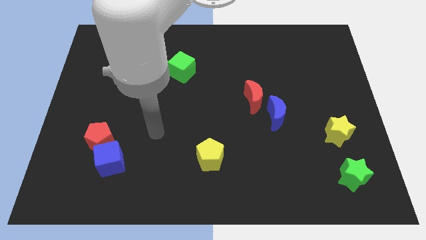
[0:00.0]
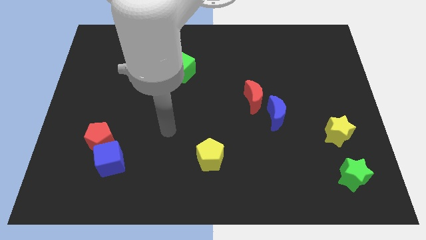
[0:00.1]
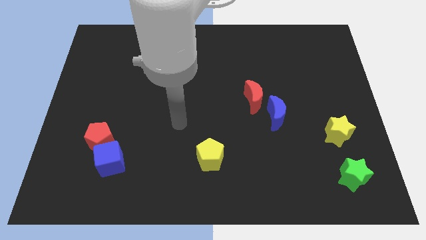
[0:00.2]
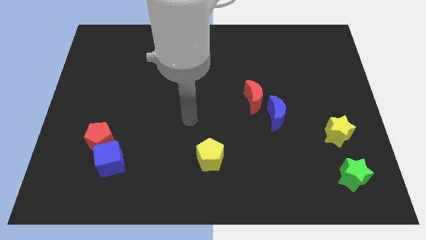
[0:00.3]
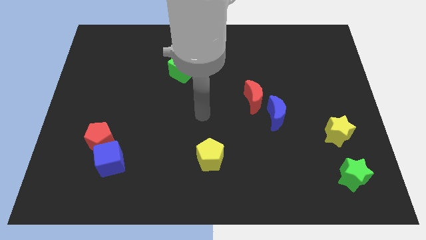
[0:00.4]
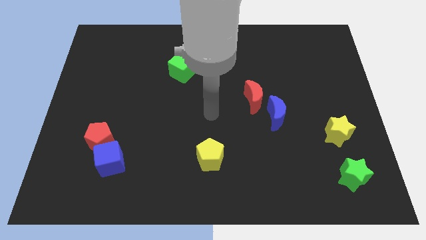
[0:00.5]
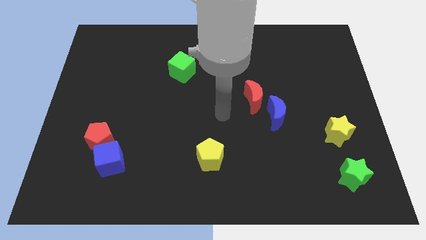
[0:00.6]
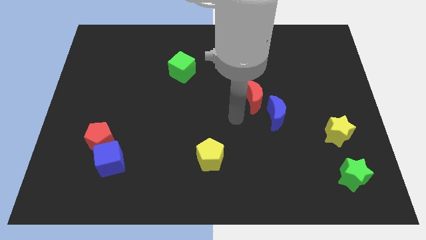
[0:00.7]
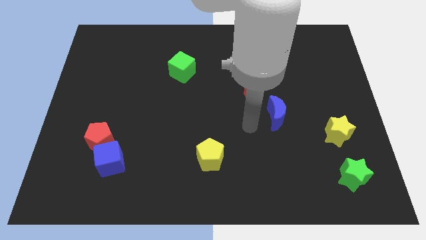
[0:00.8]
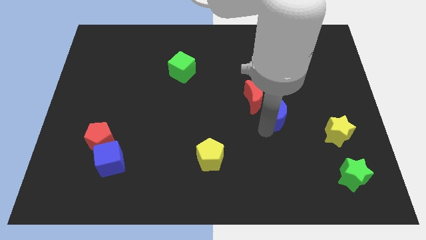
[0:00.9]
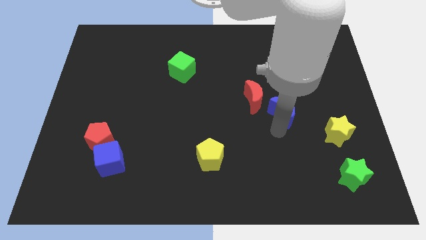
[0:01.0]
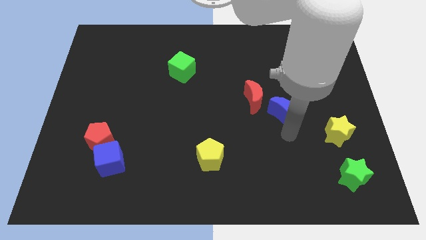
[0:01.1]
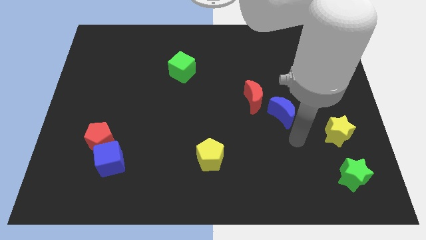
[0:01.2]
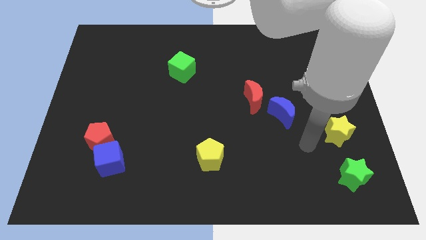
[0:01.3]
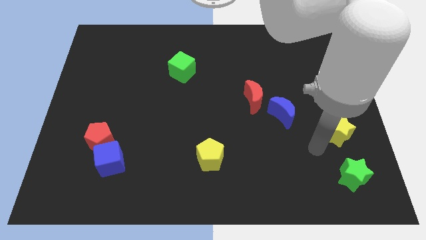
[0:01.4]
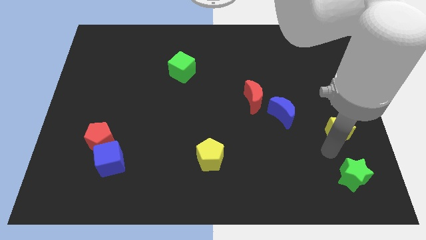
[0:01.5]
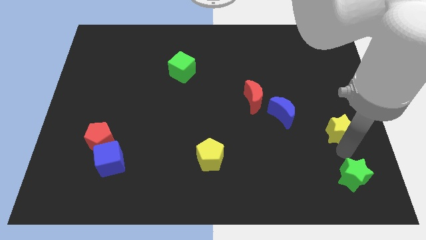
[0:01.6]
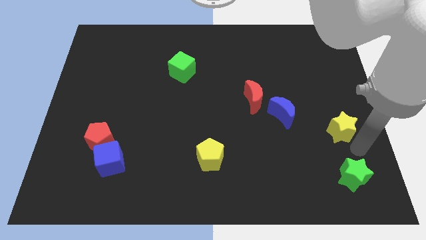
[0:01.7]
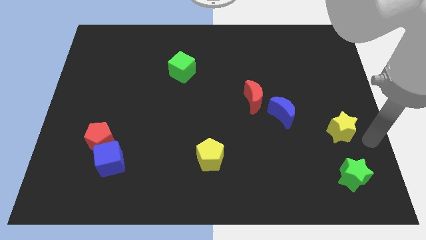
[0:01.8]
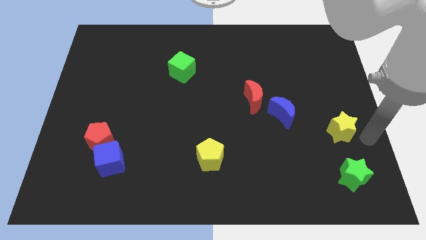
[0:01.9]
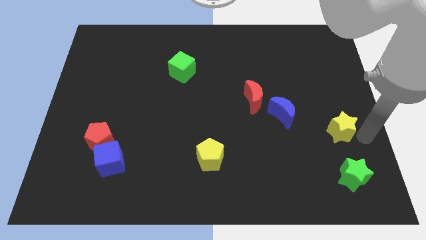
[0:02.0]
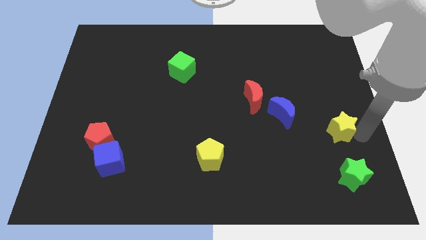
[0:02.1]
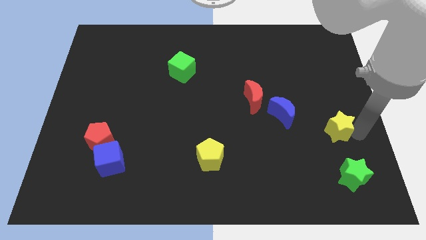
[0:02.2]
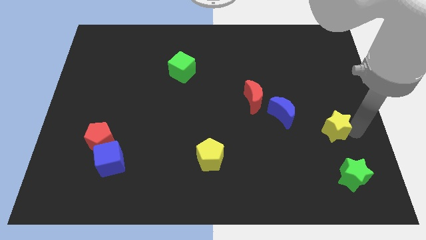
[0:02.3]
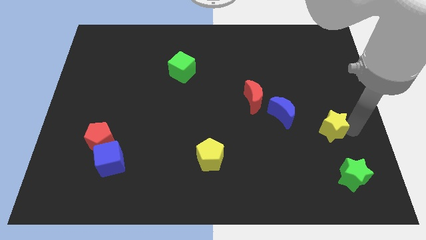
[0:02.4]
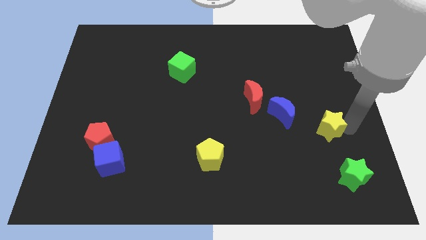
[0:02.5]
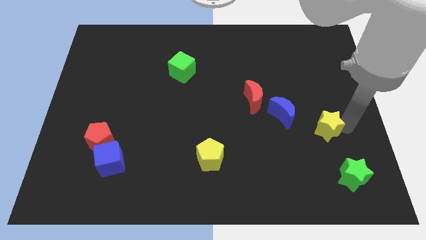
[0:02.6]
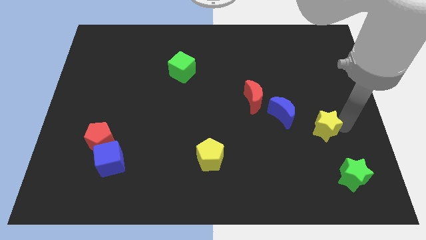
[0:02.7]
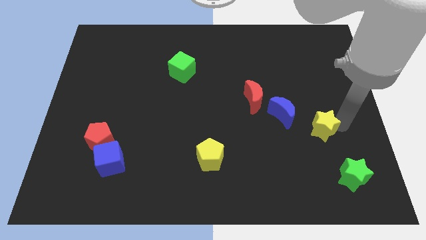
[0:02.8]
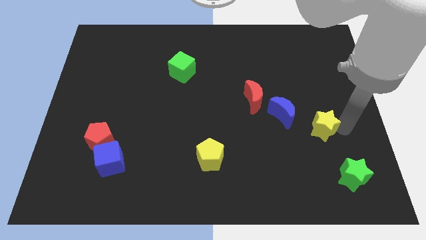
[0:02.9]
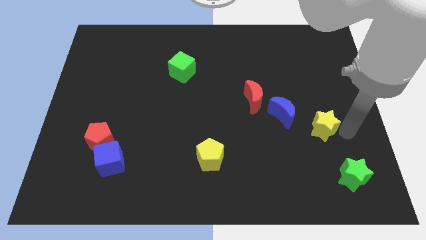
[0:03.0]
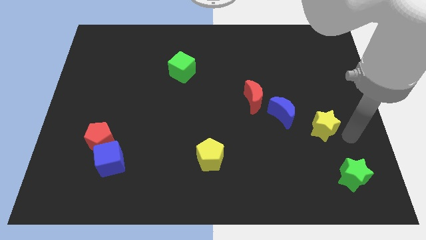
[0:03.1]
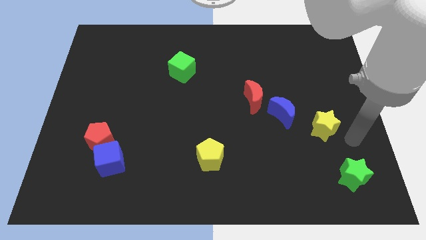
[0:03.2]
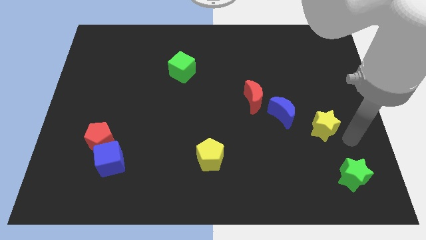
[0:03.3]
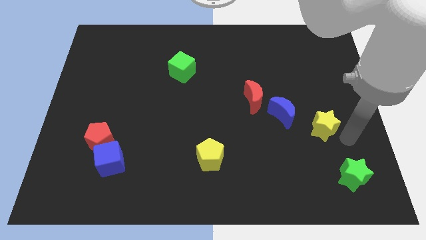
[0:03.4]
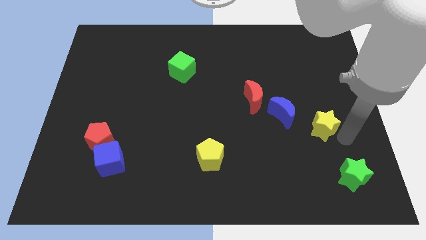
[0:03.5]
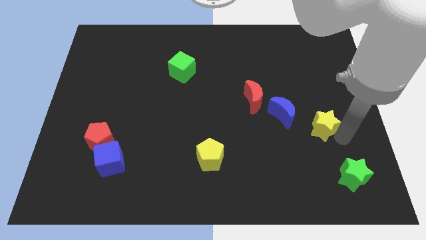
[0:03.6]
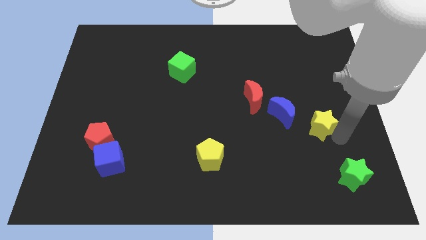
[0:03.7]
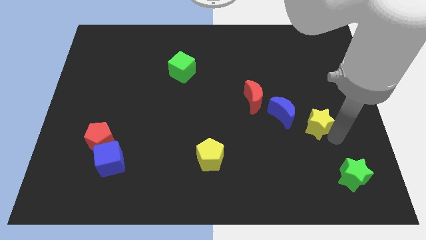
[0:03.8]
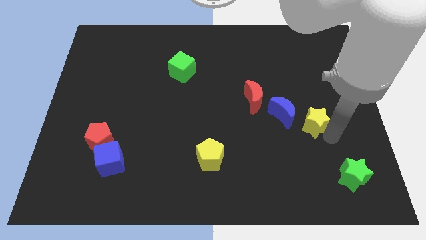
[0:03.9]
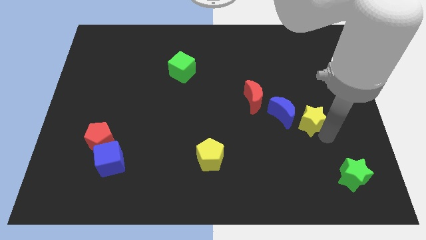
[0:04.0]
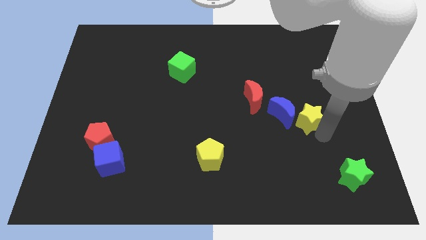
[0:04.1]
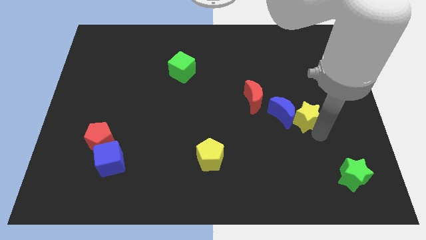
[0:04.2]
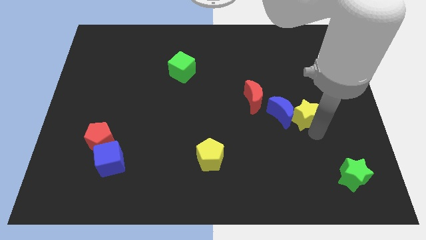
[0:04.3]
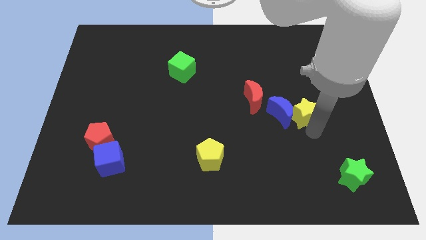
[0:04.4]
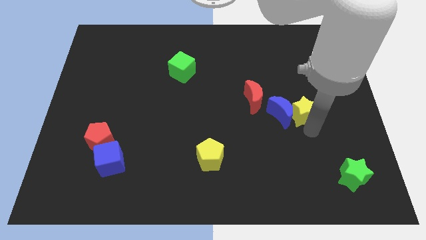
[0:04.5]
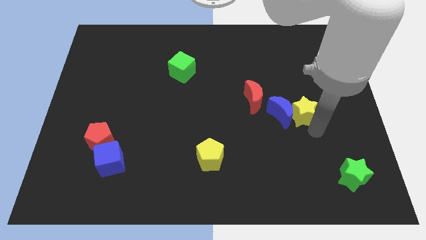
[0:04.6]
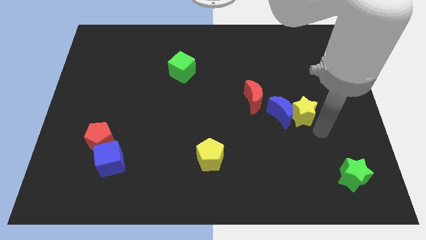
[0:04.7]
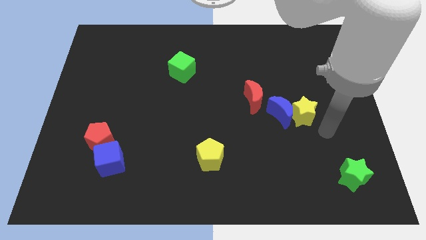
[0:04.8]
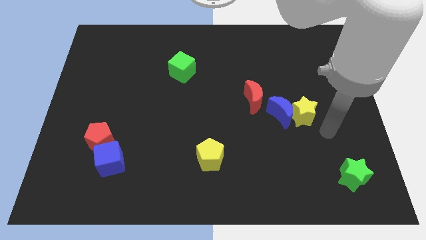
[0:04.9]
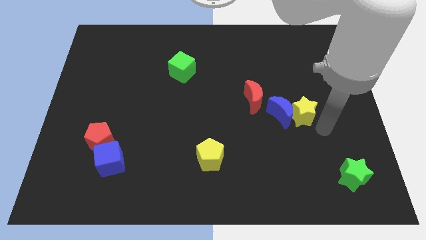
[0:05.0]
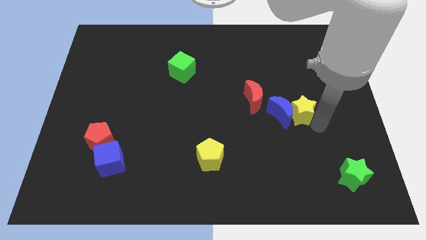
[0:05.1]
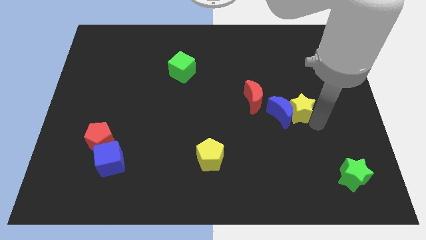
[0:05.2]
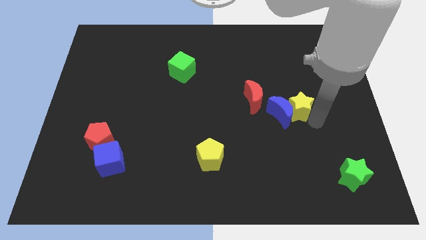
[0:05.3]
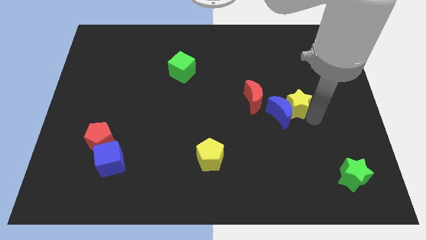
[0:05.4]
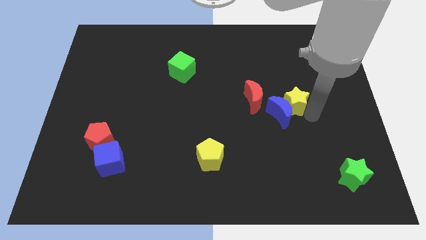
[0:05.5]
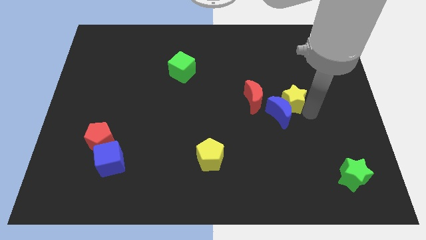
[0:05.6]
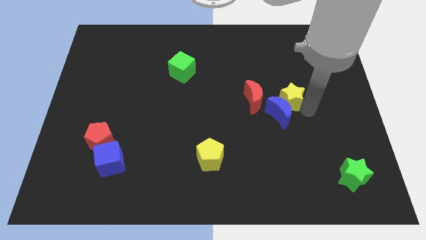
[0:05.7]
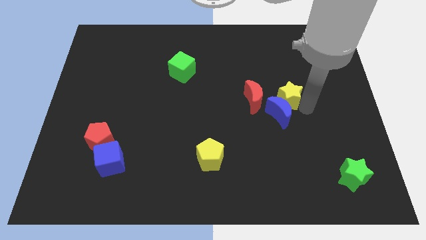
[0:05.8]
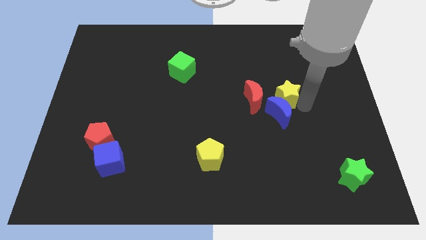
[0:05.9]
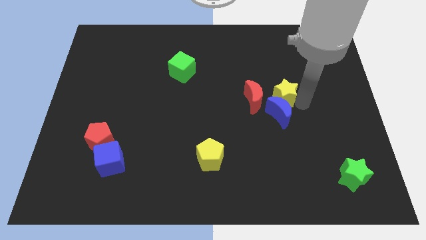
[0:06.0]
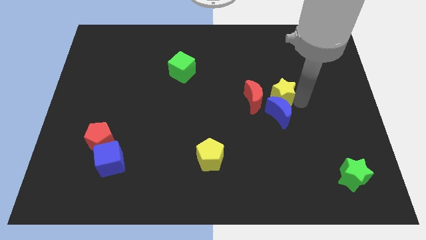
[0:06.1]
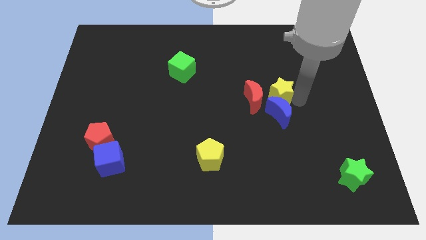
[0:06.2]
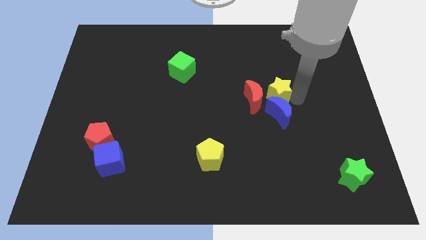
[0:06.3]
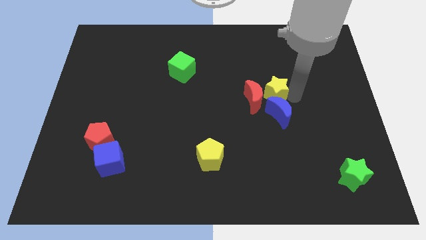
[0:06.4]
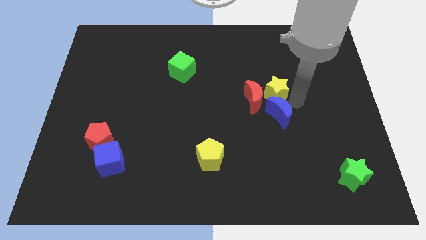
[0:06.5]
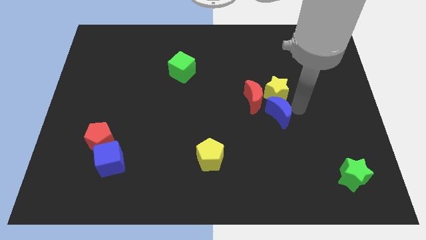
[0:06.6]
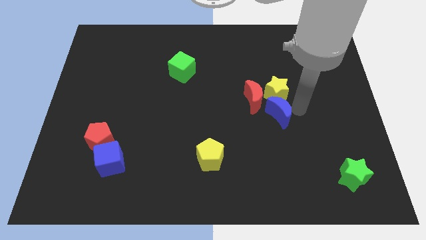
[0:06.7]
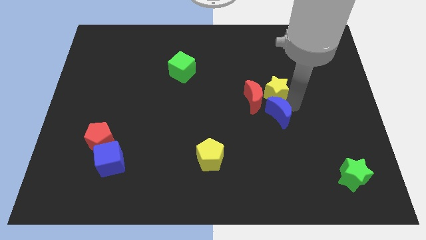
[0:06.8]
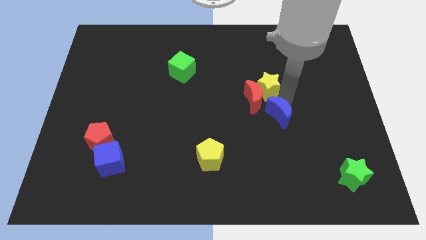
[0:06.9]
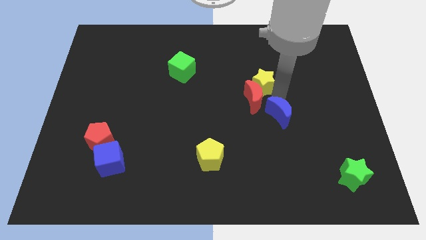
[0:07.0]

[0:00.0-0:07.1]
slide the yellow star diagonally upwards and left

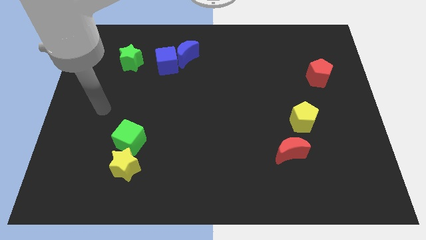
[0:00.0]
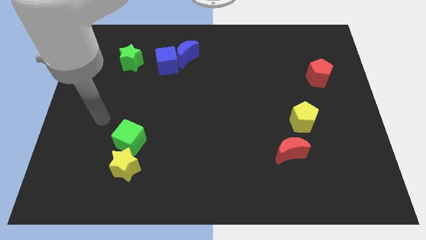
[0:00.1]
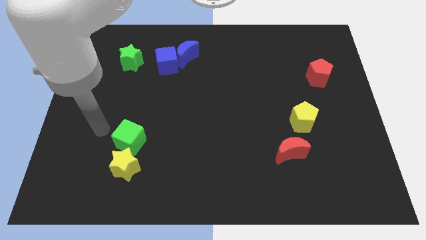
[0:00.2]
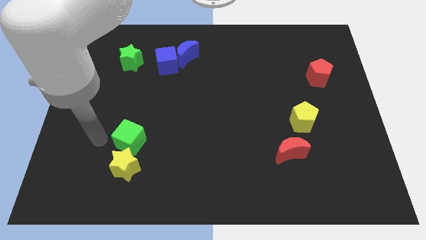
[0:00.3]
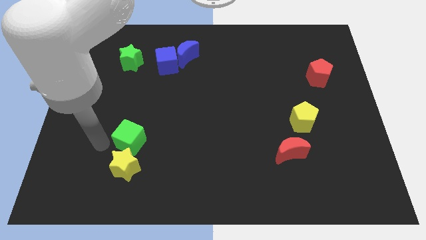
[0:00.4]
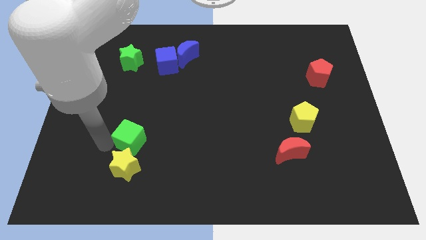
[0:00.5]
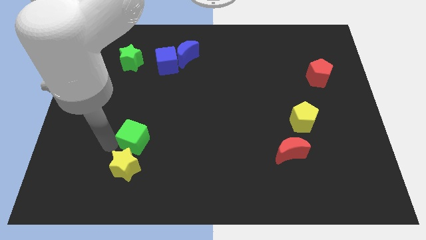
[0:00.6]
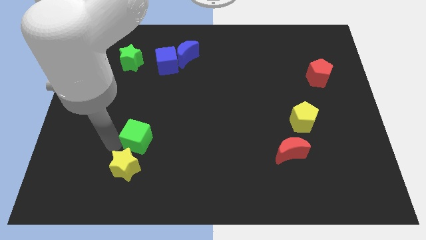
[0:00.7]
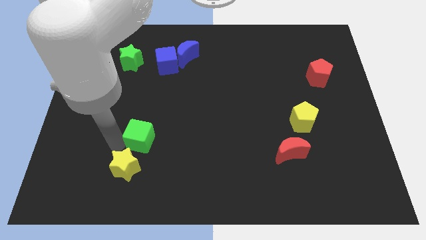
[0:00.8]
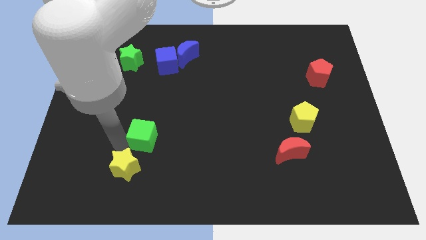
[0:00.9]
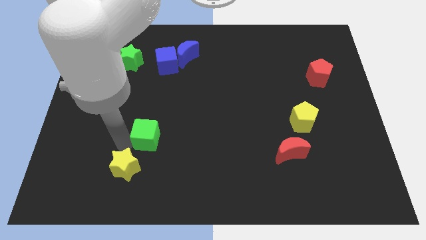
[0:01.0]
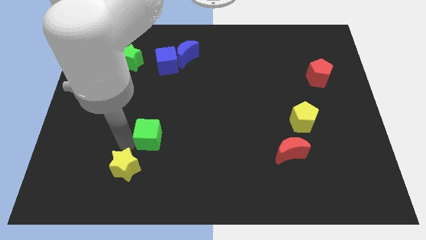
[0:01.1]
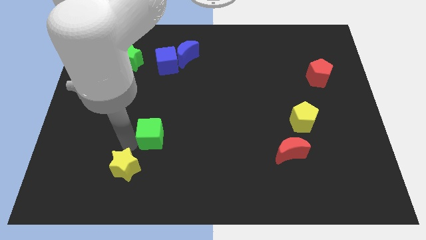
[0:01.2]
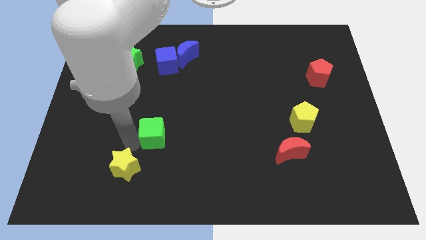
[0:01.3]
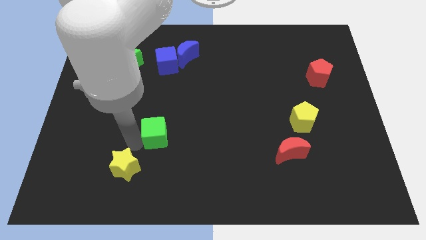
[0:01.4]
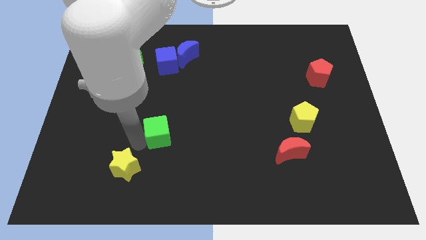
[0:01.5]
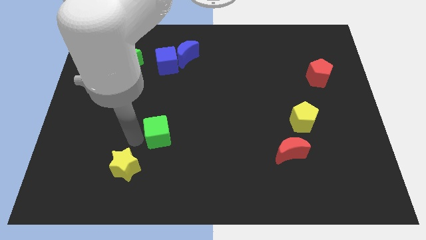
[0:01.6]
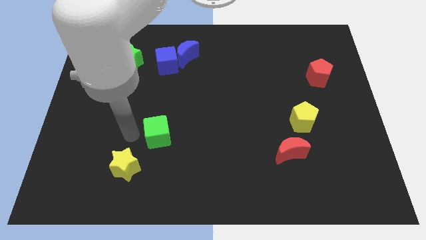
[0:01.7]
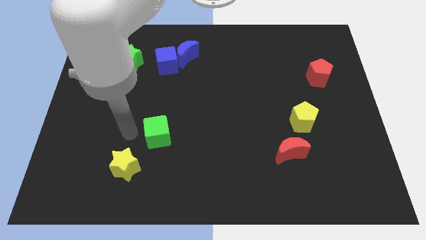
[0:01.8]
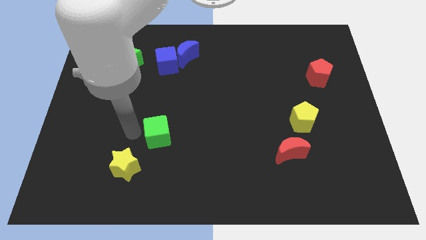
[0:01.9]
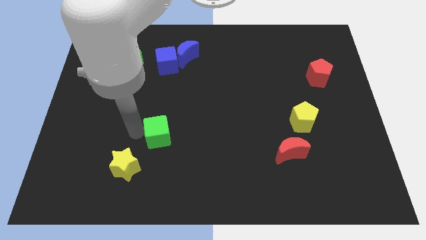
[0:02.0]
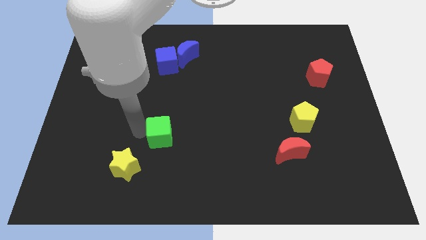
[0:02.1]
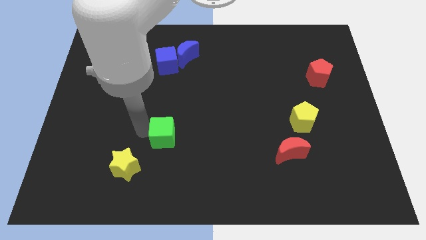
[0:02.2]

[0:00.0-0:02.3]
move the green cube somewhat right
